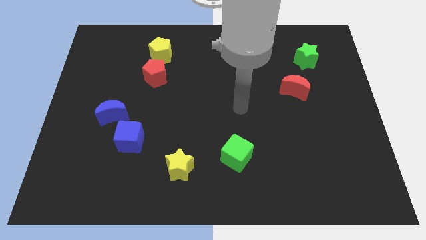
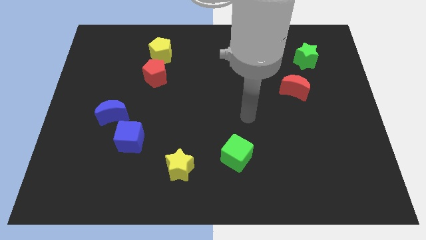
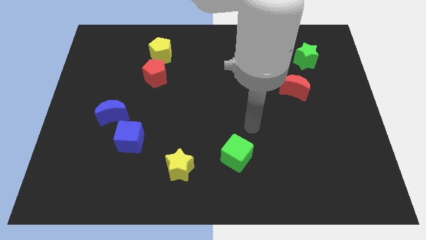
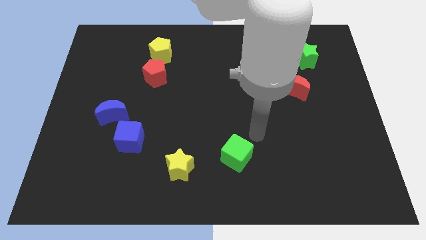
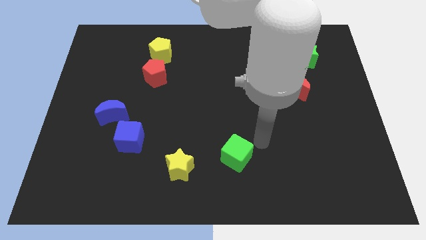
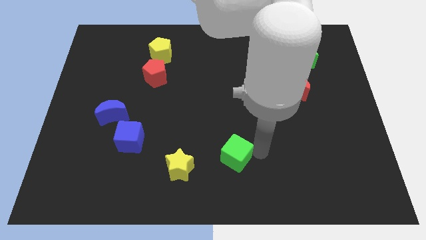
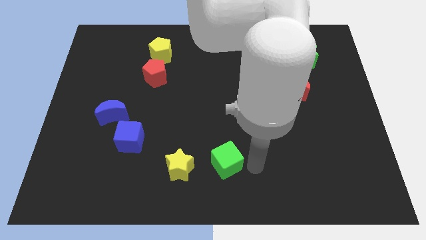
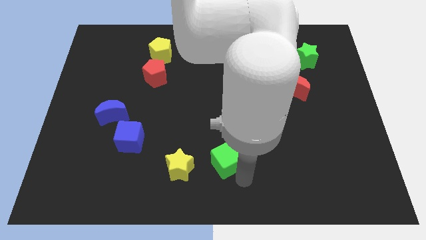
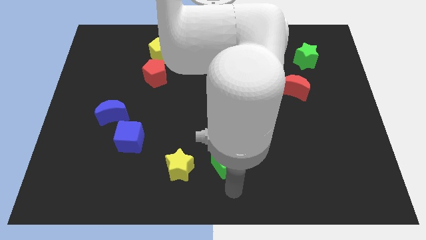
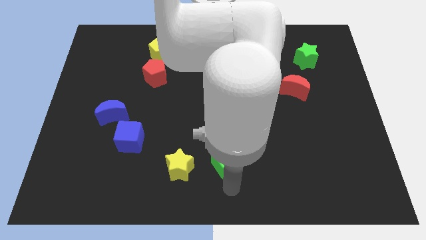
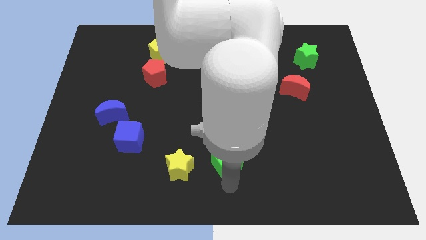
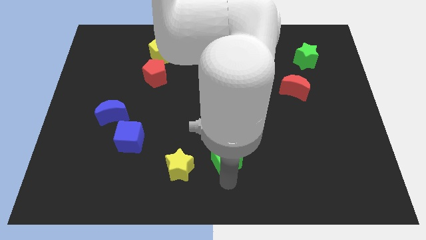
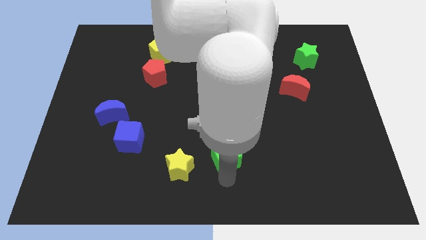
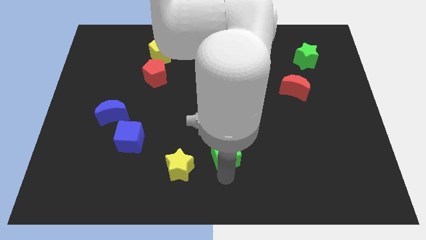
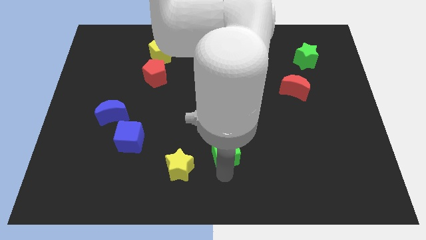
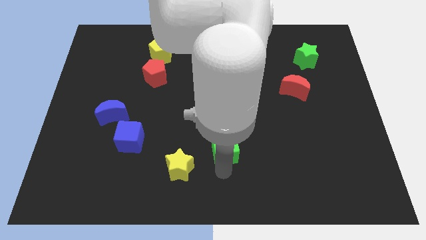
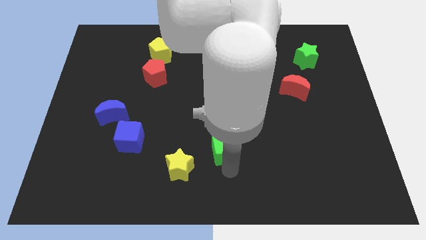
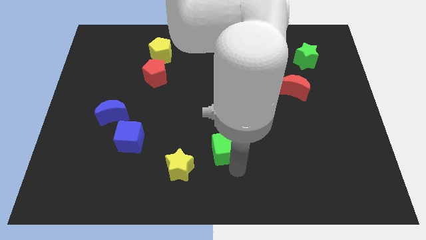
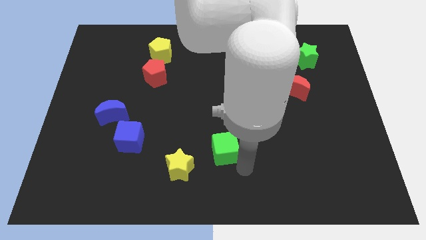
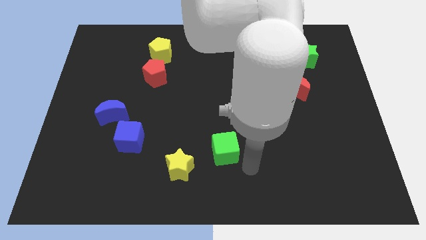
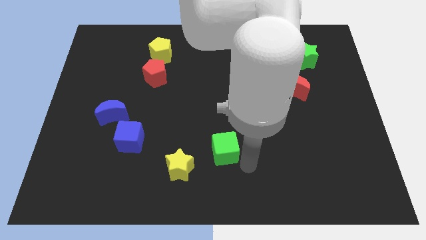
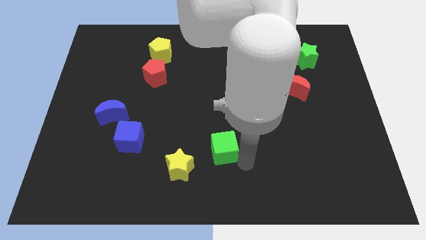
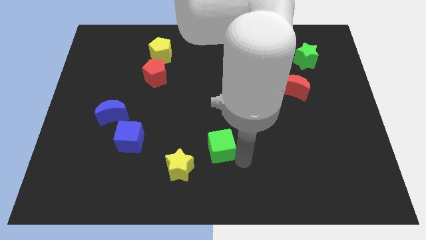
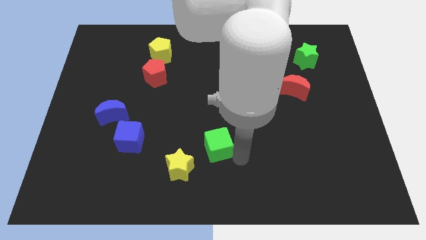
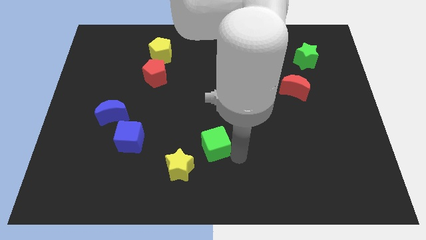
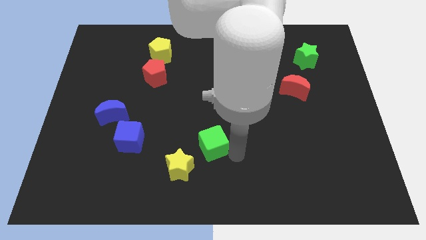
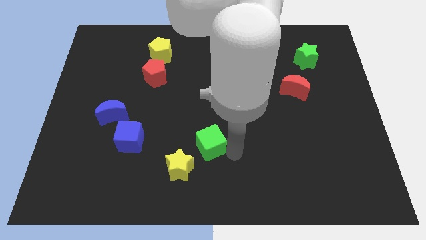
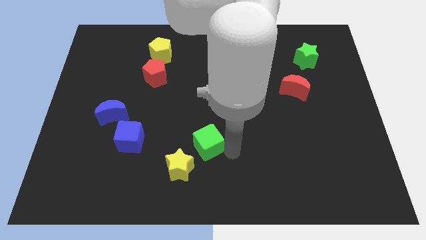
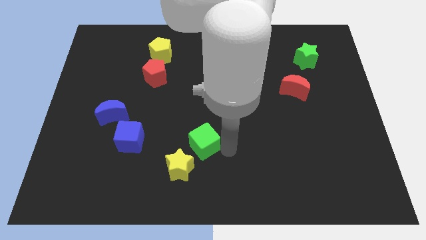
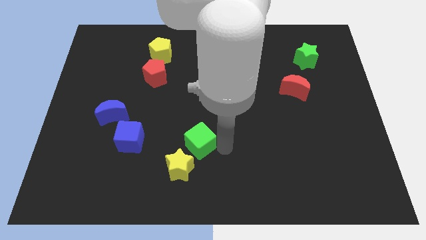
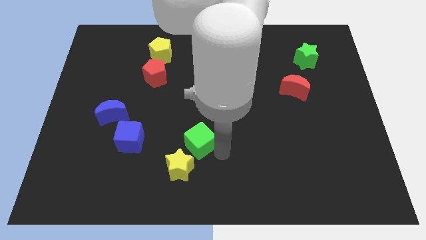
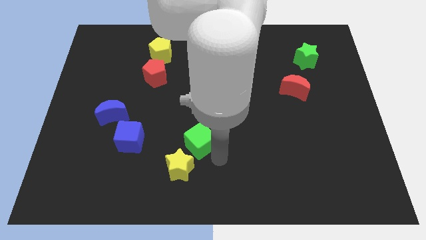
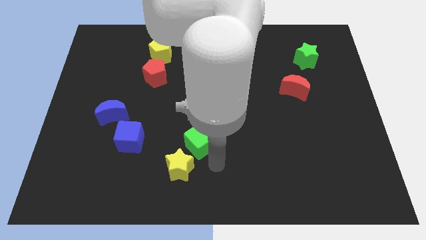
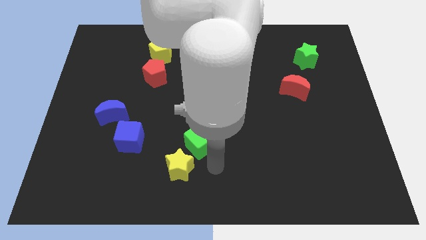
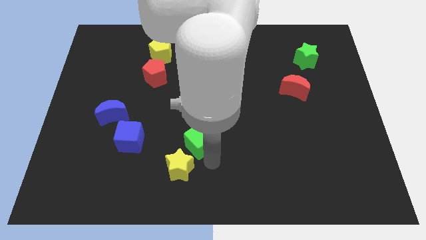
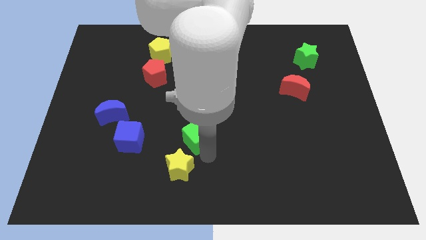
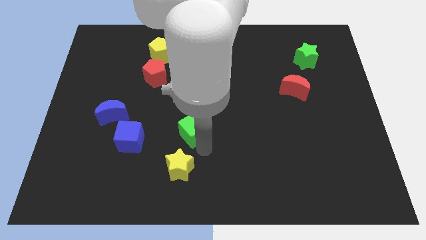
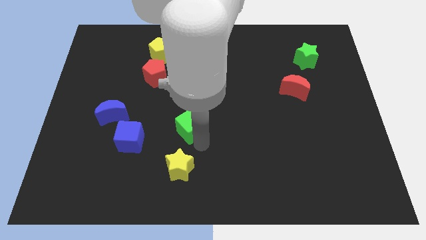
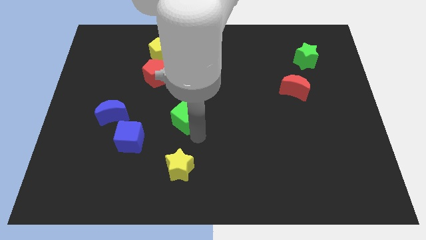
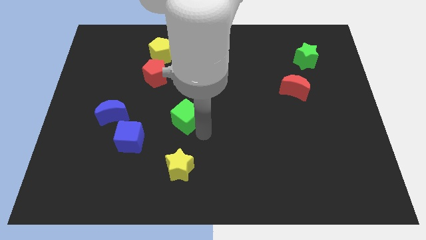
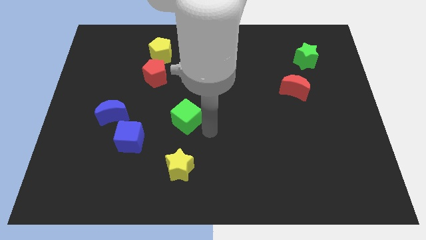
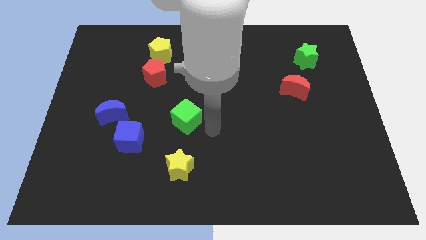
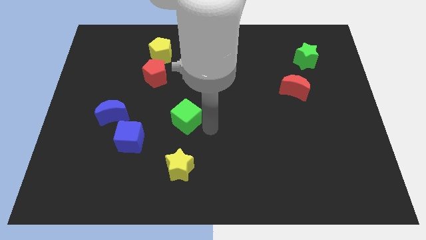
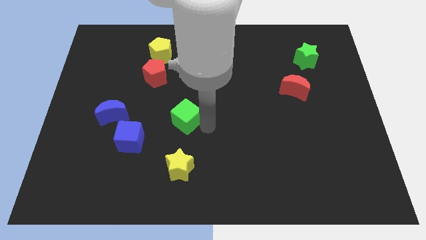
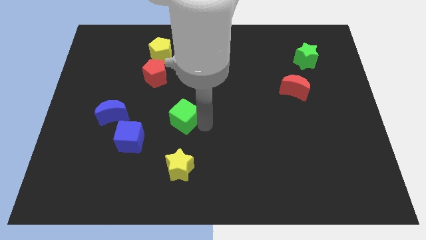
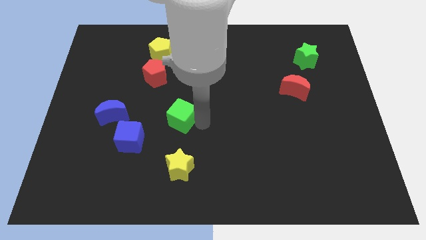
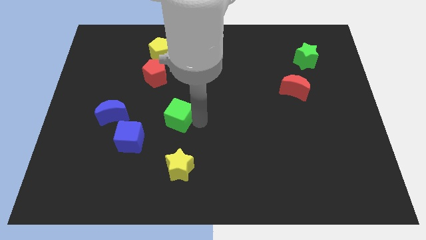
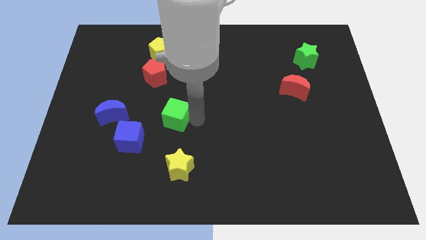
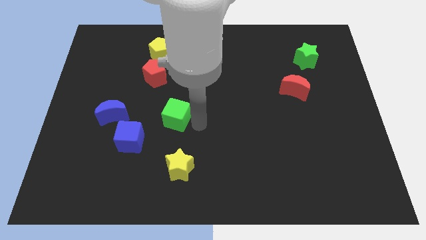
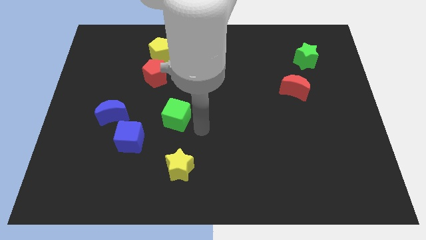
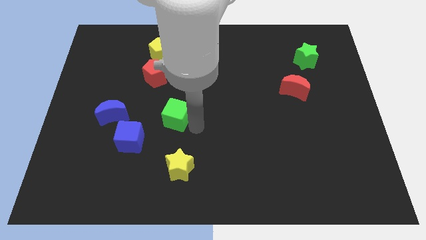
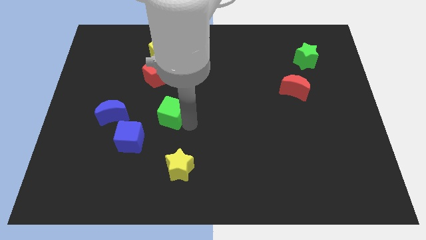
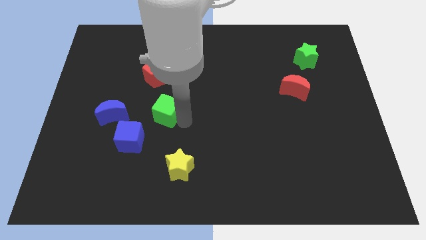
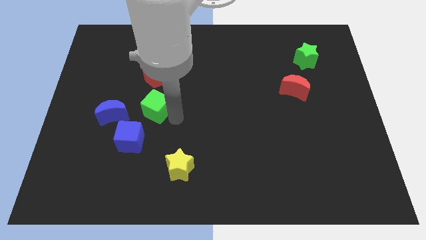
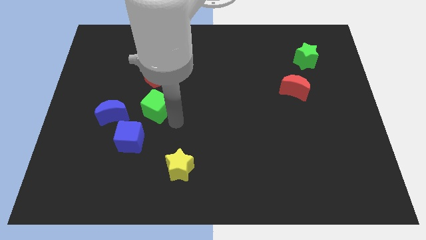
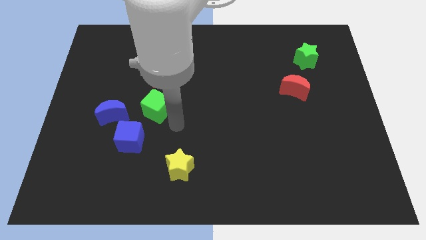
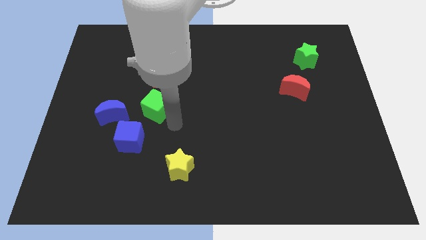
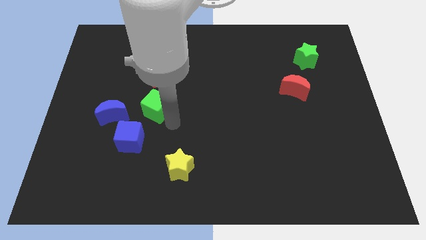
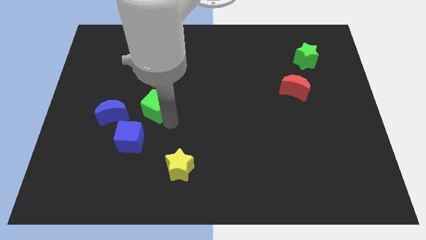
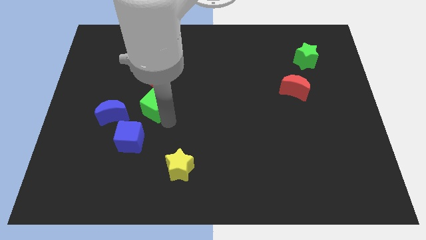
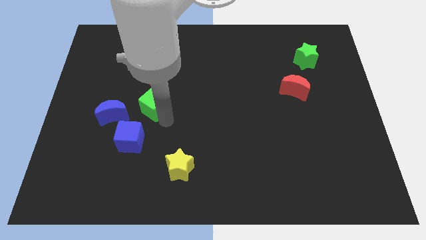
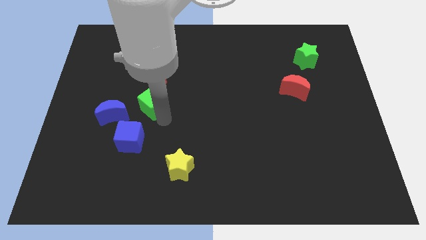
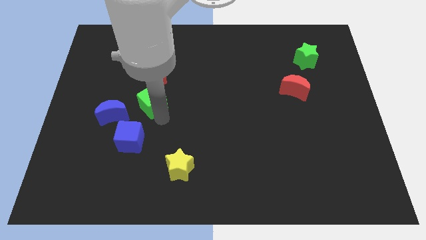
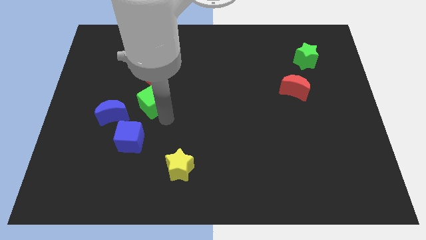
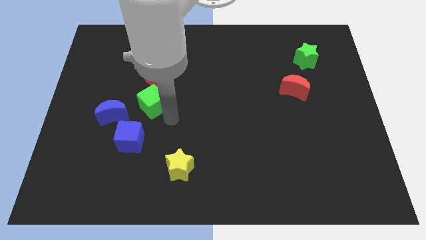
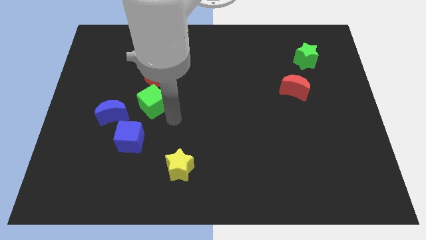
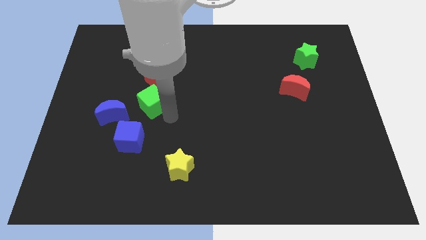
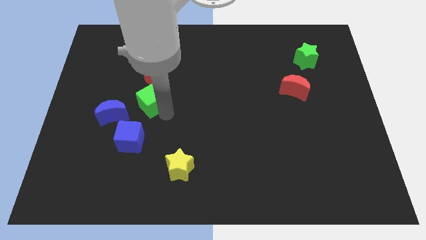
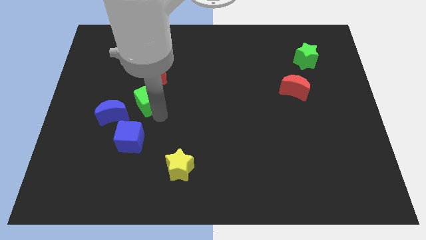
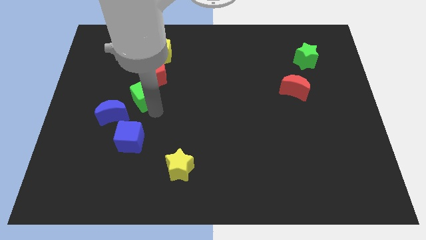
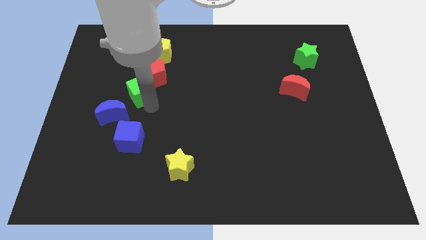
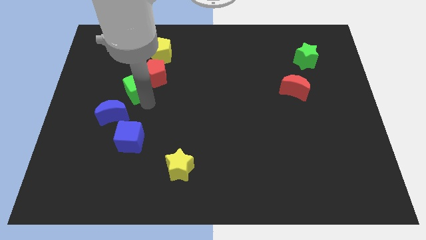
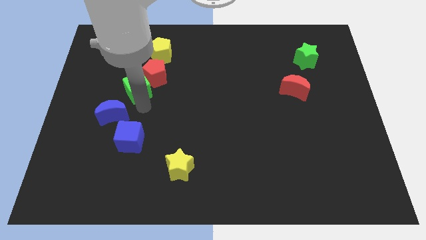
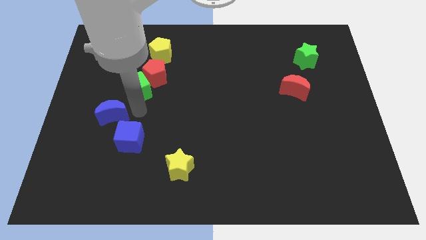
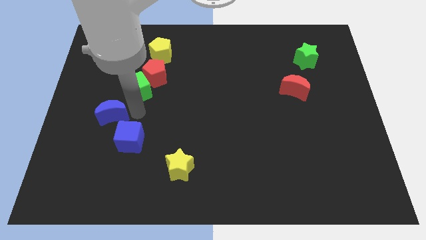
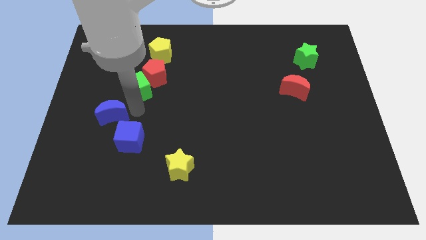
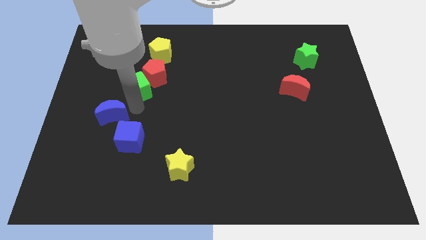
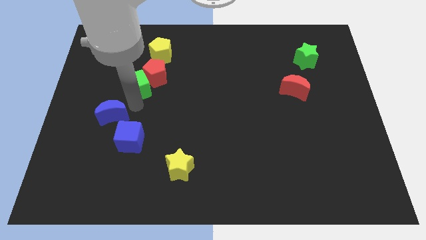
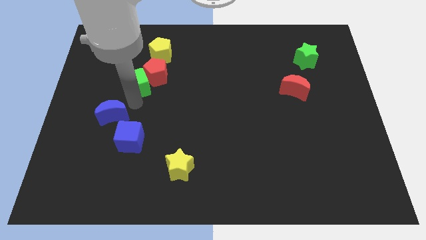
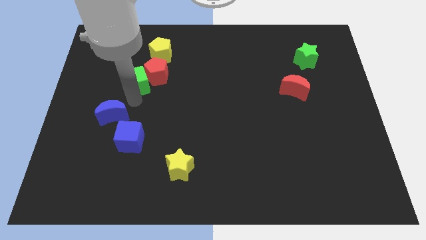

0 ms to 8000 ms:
move the green cube diagonally down and to the left of the yellow pentagon
